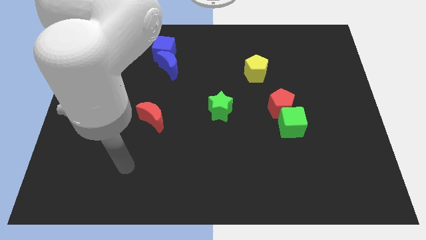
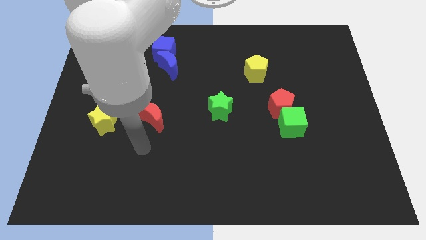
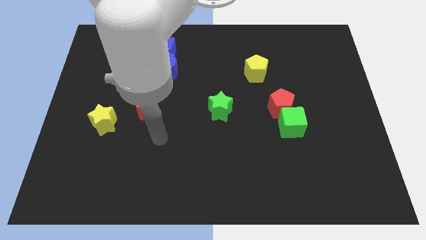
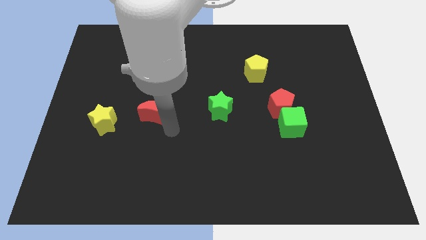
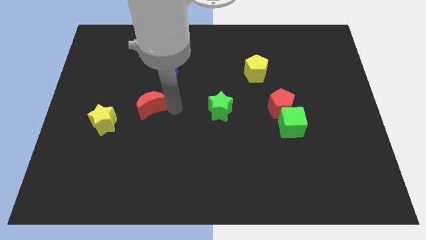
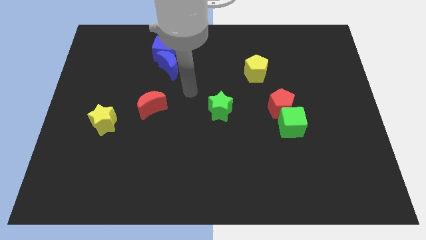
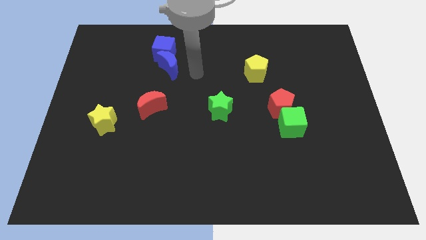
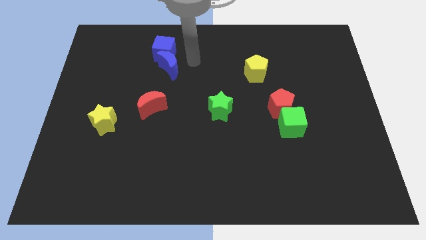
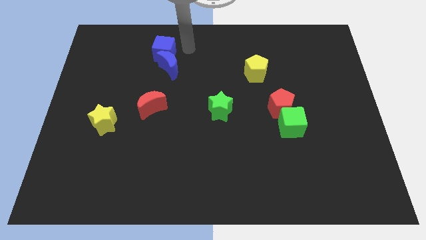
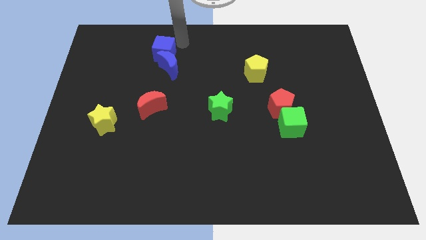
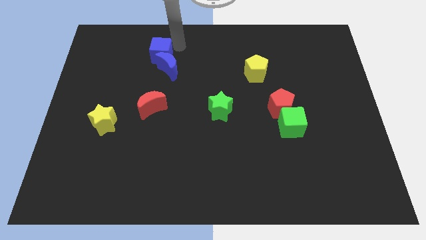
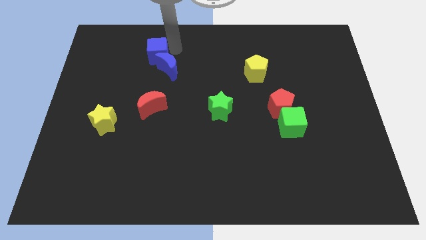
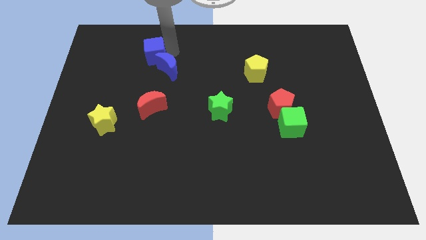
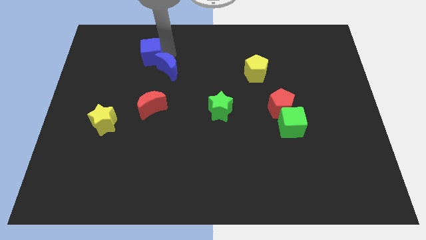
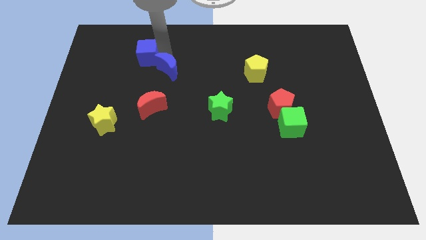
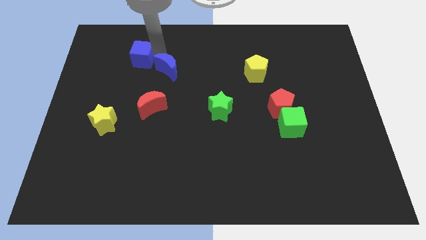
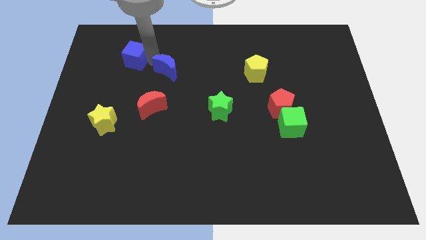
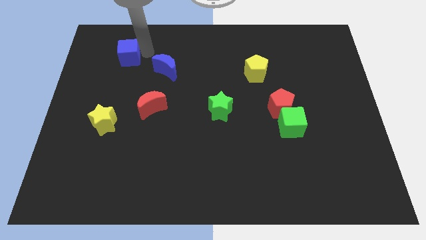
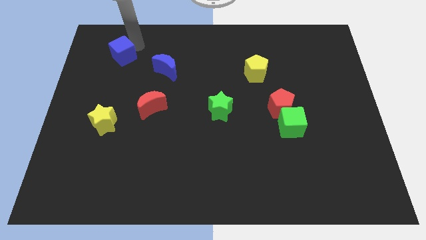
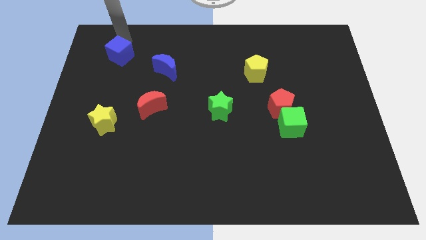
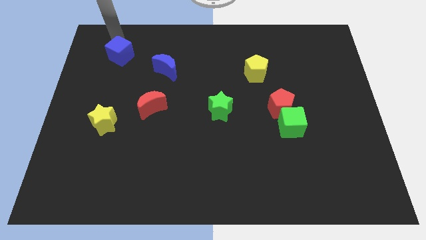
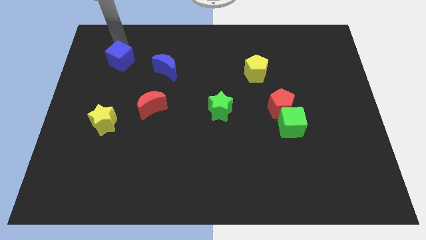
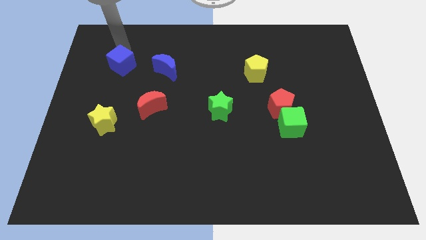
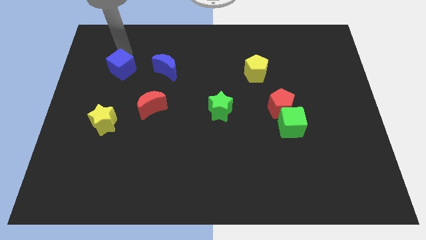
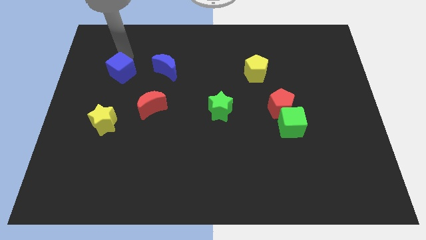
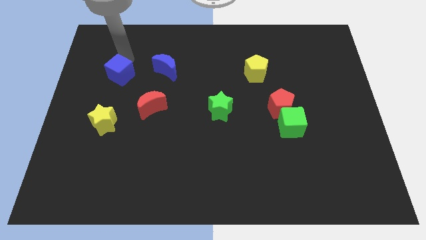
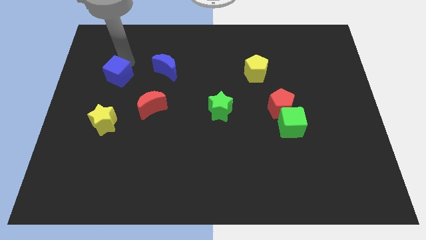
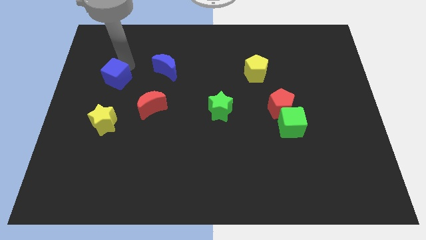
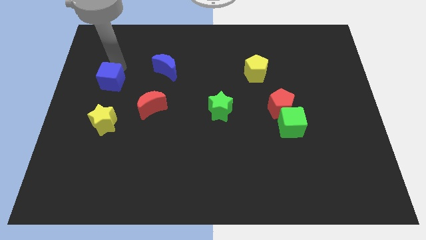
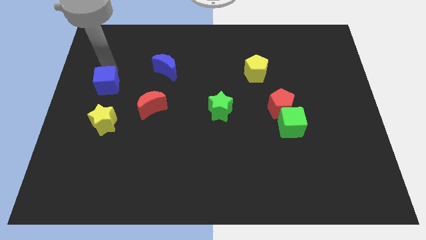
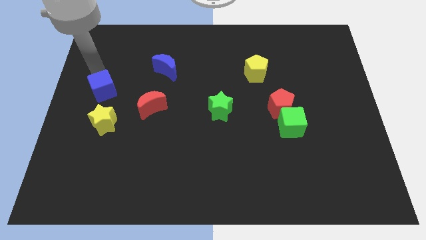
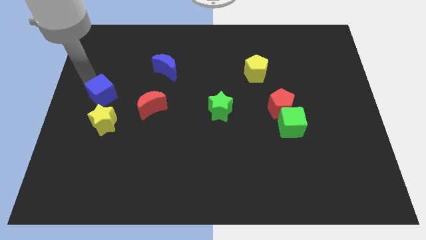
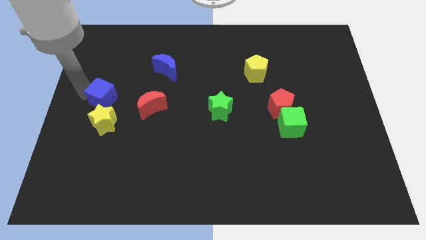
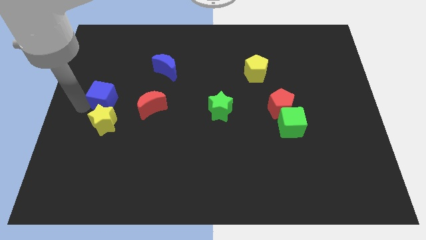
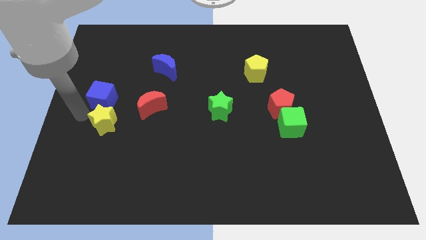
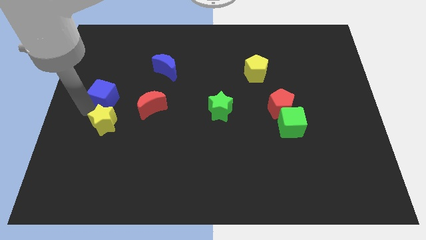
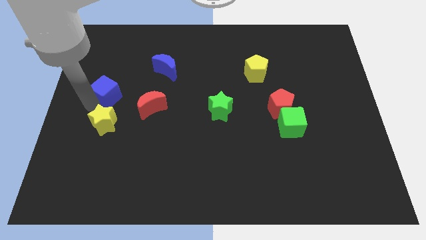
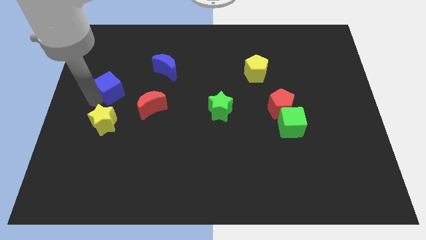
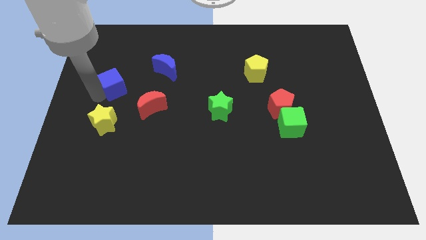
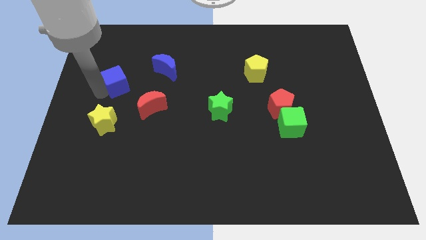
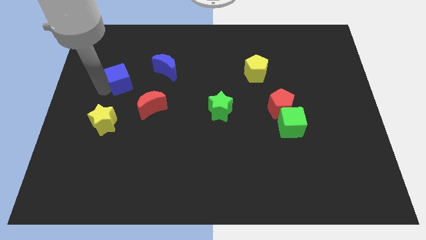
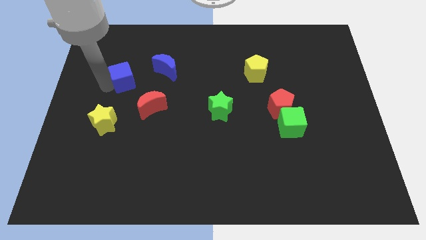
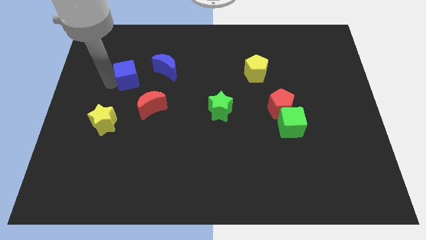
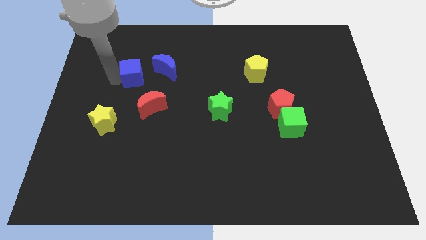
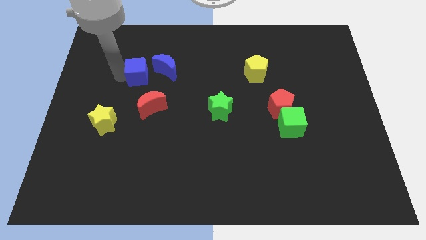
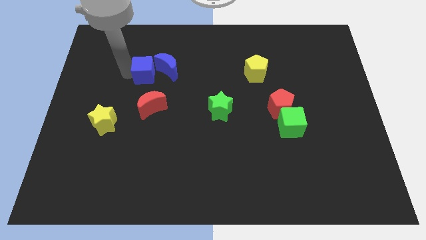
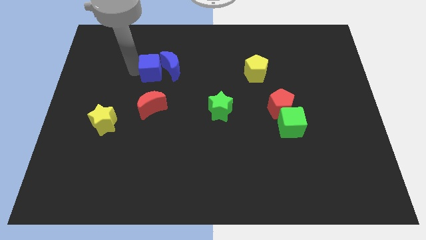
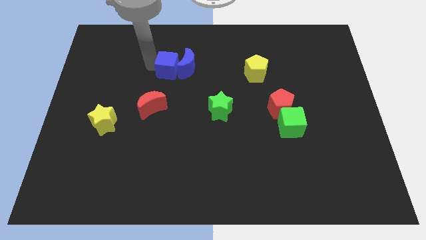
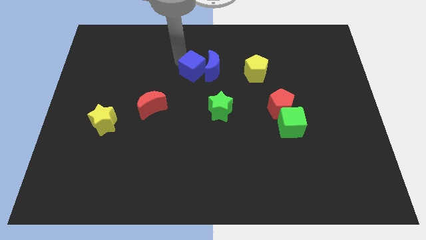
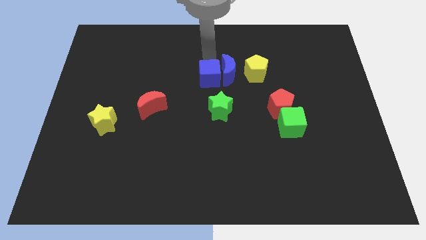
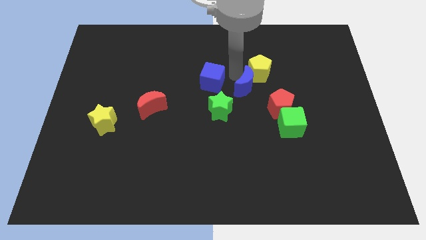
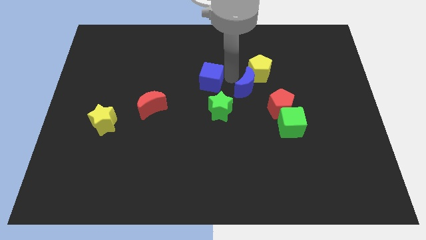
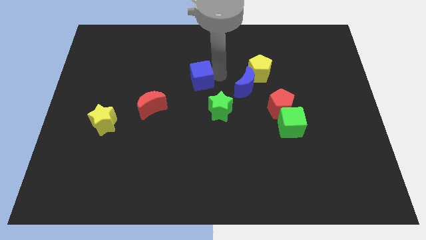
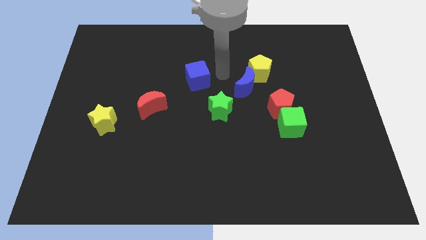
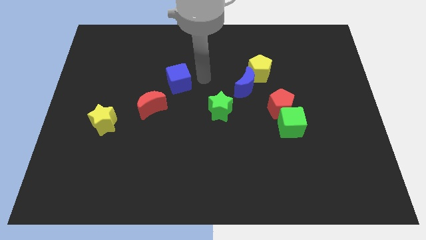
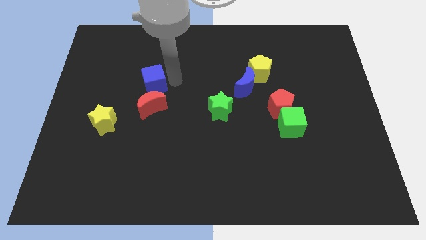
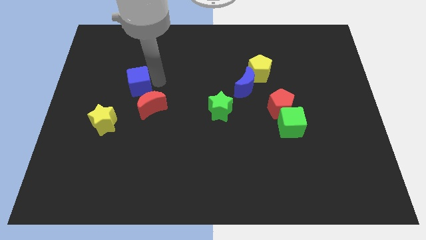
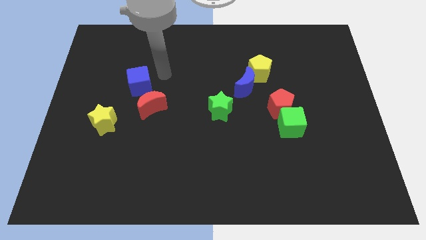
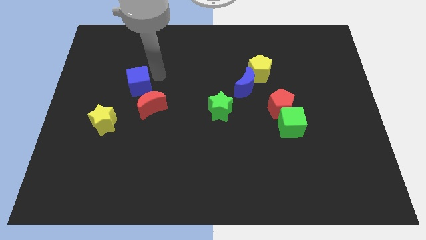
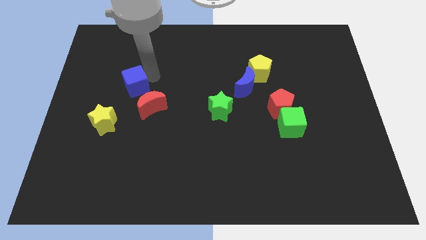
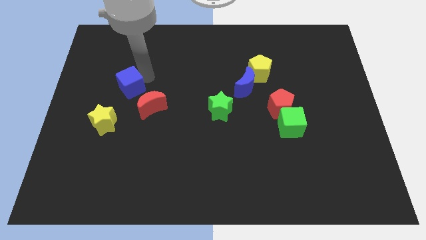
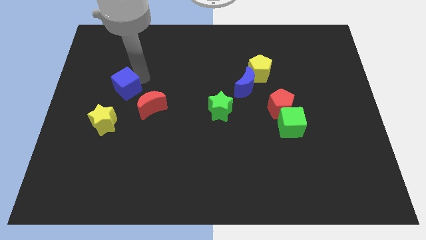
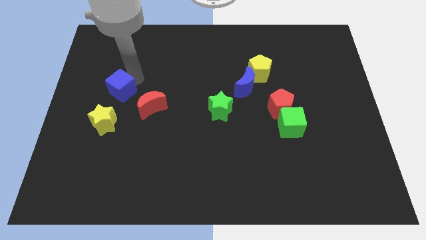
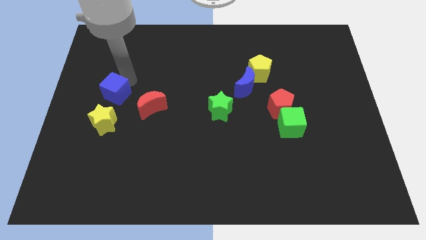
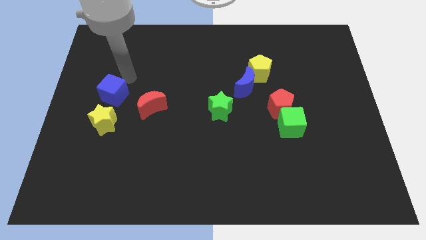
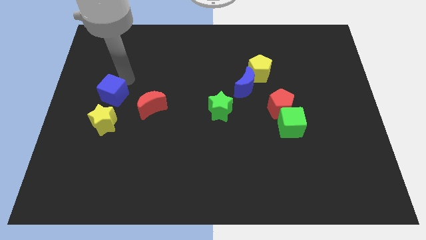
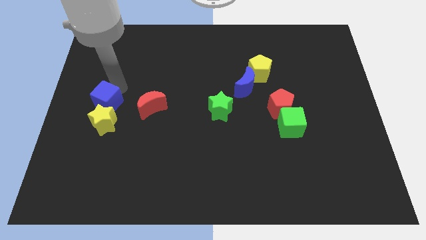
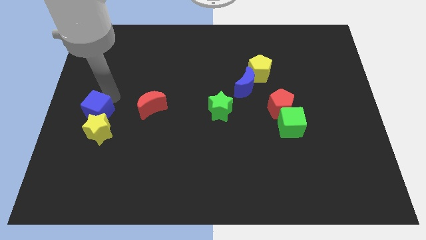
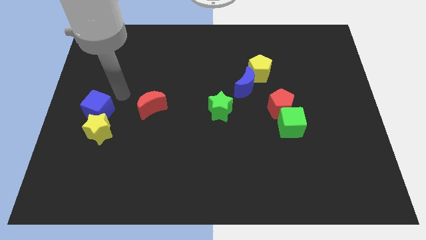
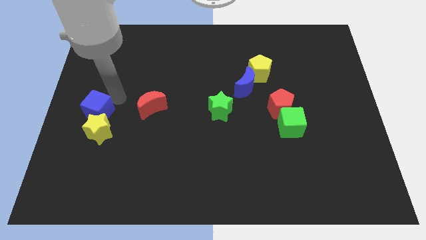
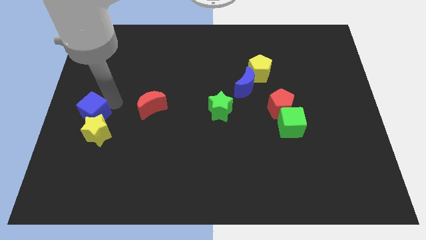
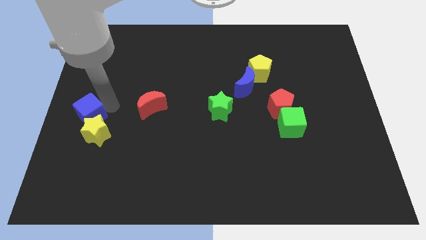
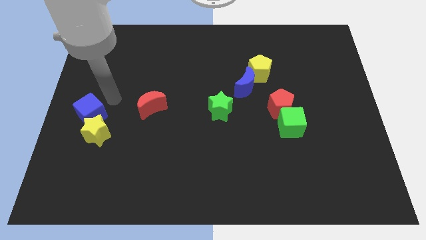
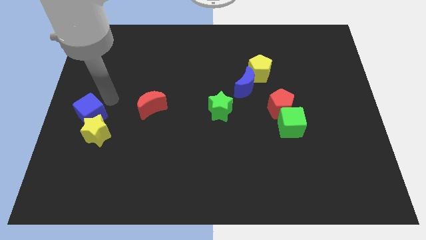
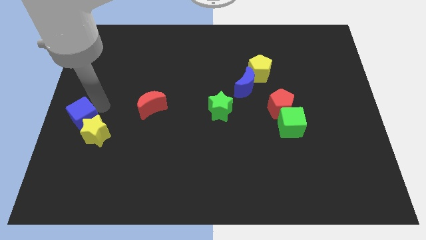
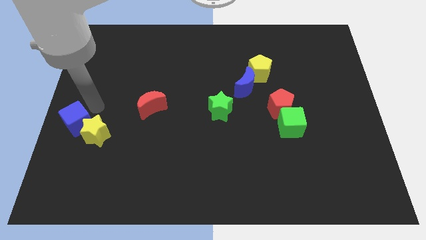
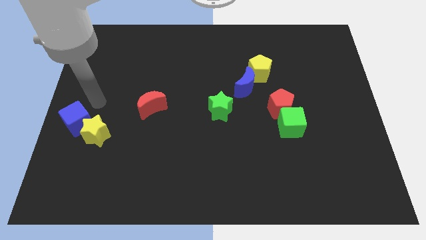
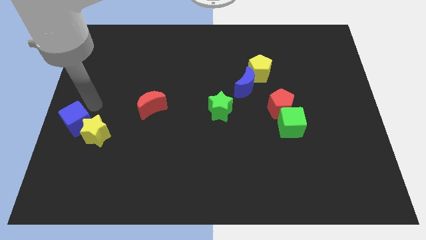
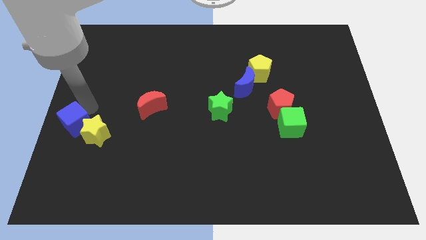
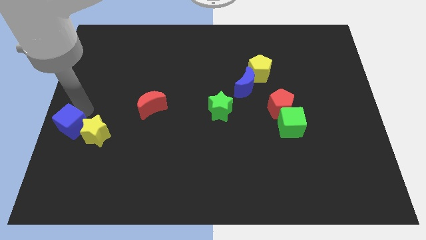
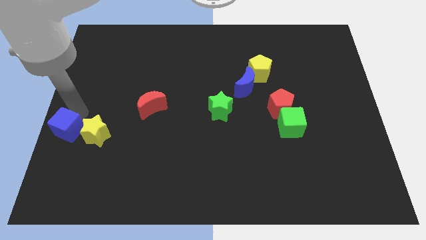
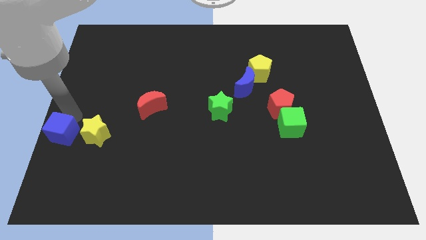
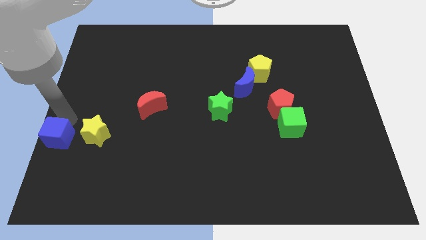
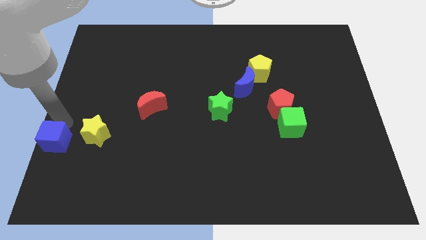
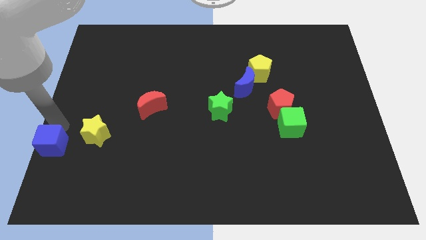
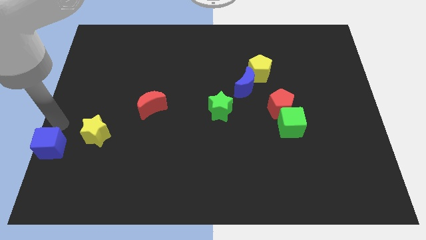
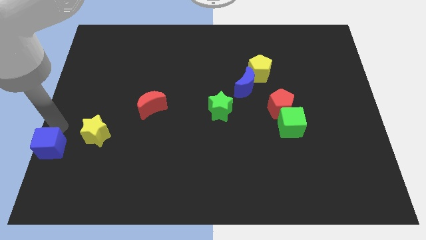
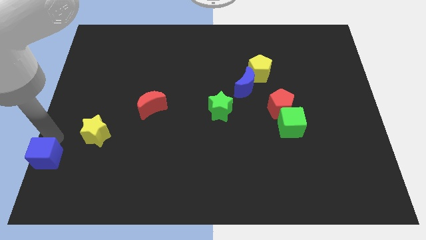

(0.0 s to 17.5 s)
slide the blue cube to the bottom left
